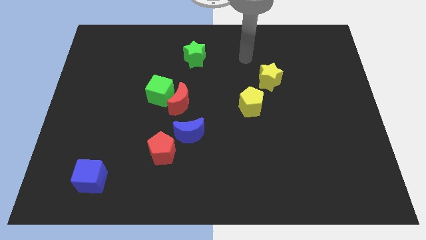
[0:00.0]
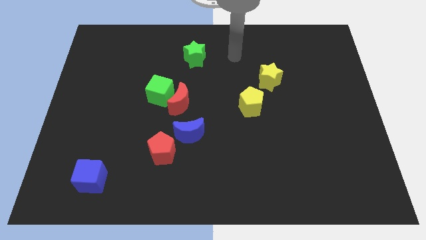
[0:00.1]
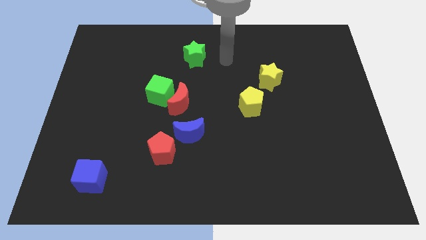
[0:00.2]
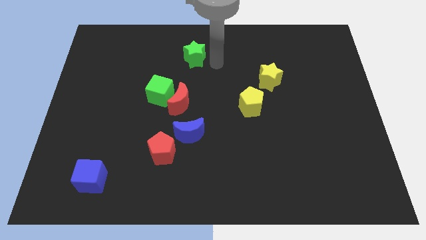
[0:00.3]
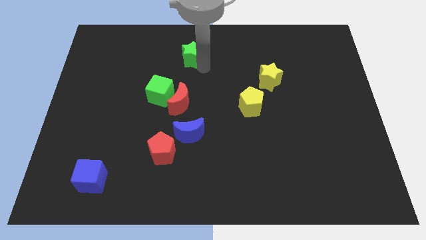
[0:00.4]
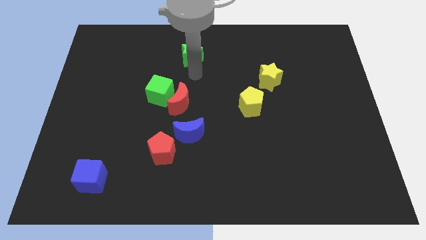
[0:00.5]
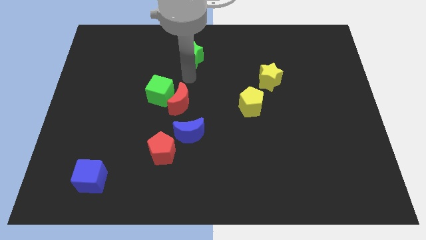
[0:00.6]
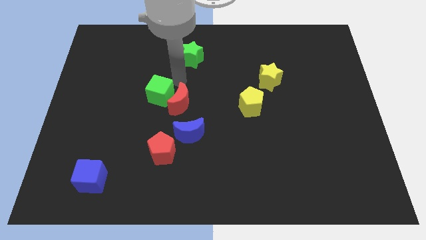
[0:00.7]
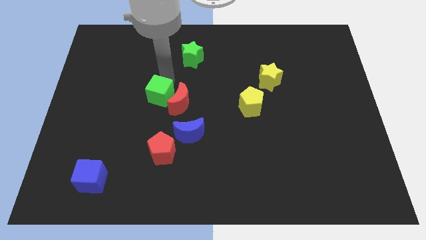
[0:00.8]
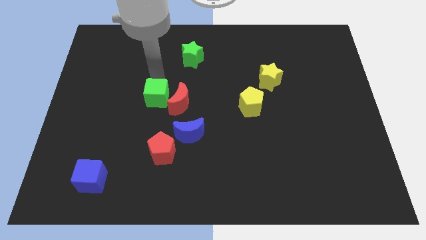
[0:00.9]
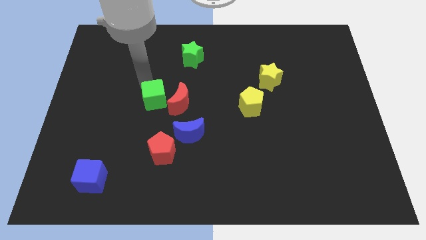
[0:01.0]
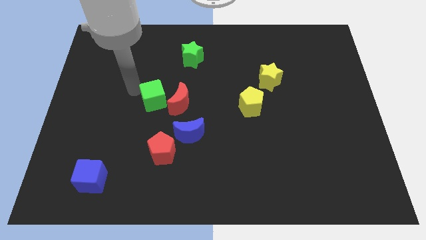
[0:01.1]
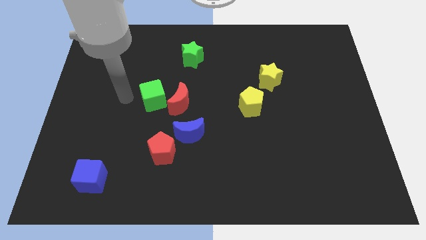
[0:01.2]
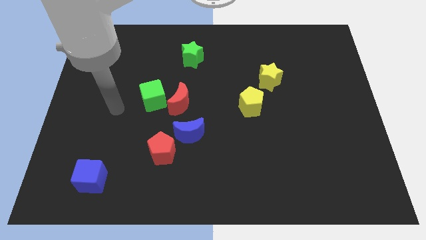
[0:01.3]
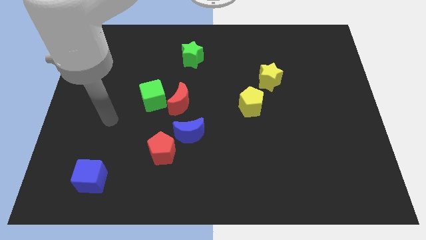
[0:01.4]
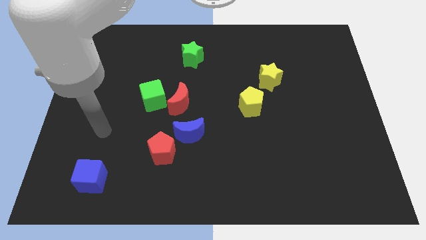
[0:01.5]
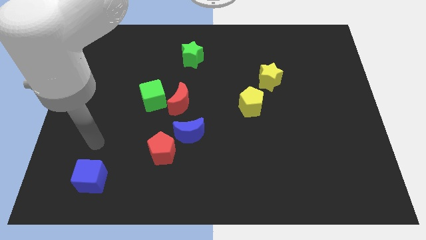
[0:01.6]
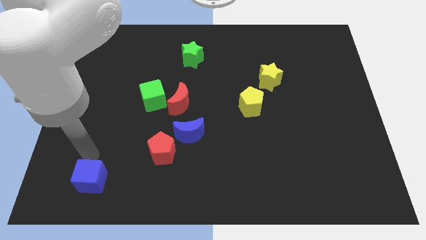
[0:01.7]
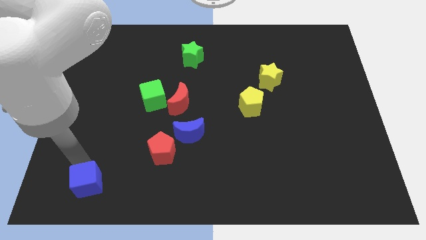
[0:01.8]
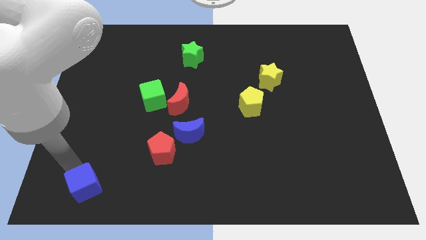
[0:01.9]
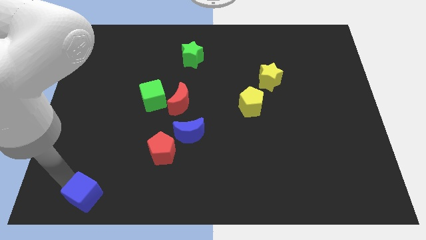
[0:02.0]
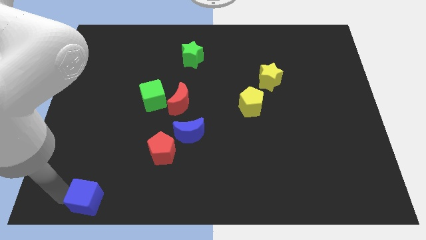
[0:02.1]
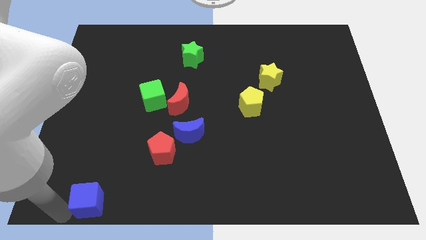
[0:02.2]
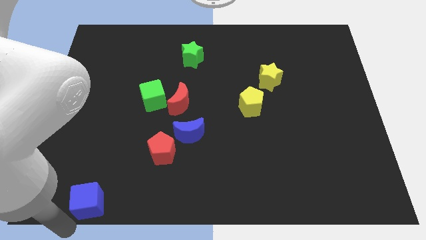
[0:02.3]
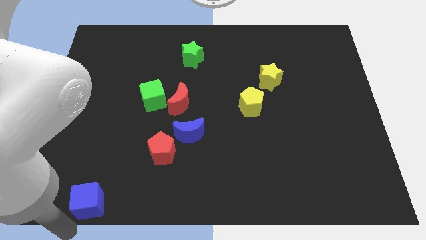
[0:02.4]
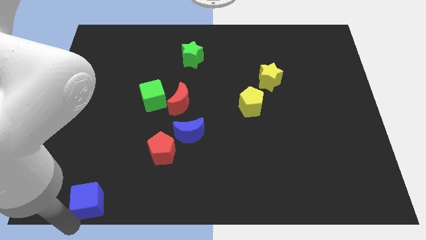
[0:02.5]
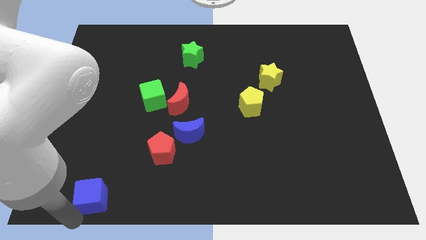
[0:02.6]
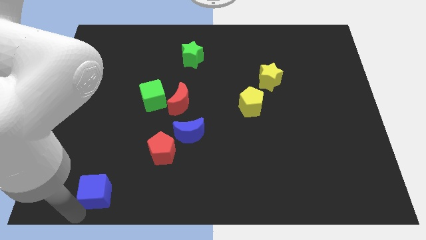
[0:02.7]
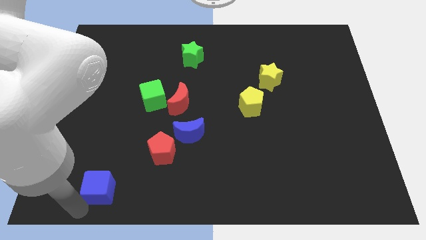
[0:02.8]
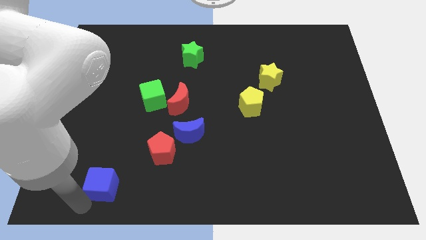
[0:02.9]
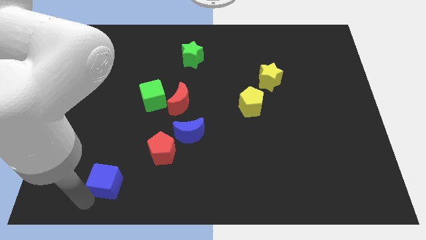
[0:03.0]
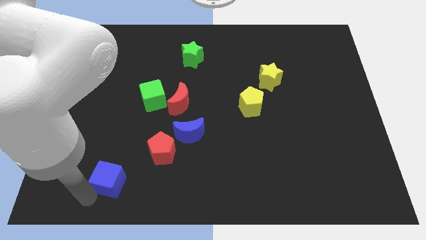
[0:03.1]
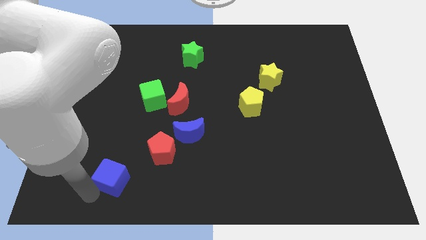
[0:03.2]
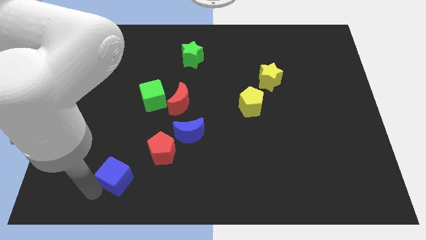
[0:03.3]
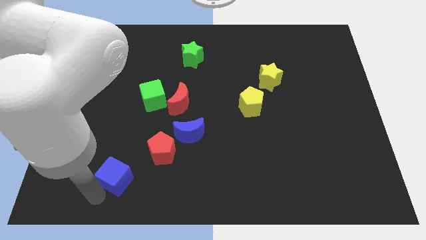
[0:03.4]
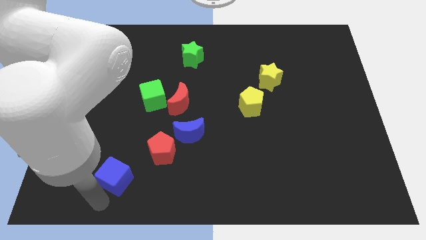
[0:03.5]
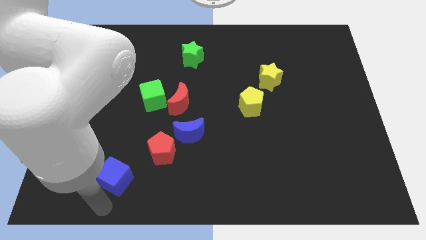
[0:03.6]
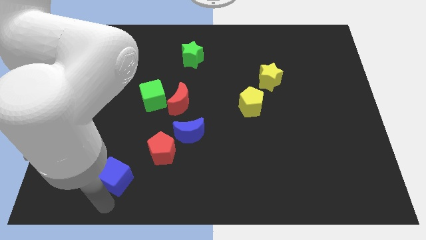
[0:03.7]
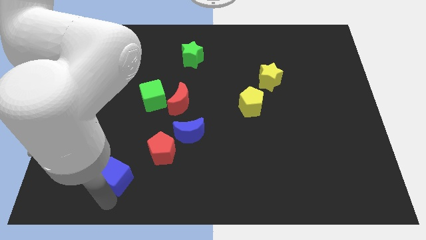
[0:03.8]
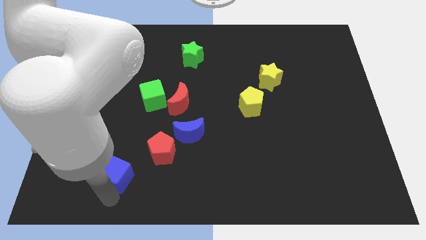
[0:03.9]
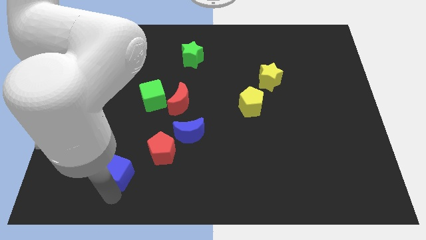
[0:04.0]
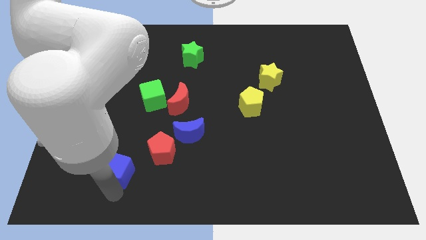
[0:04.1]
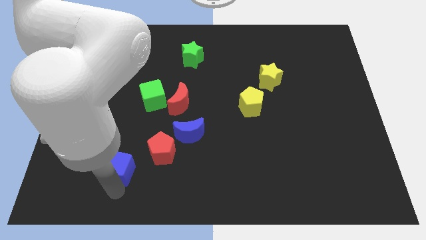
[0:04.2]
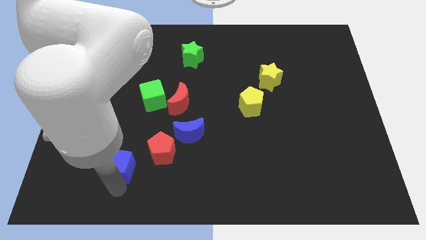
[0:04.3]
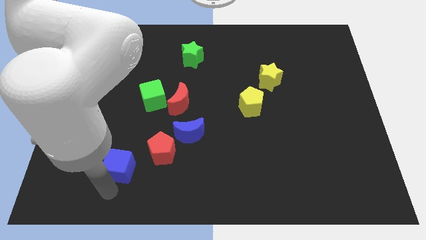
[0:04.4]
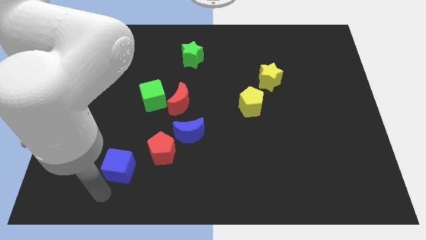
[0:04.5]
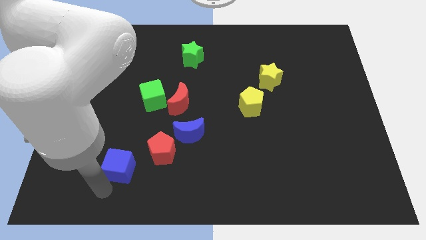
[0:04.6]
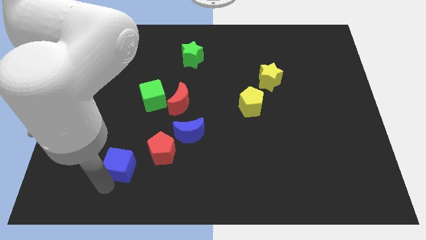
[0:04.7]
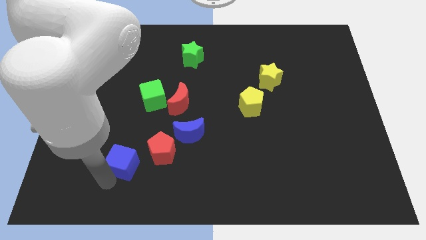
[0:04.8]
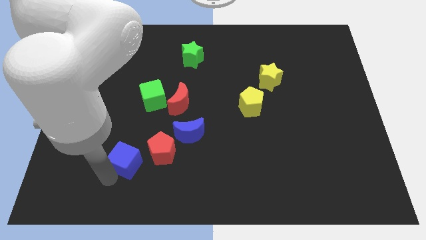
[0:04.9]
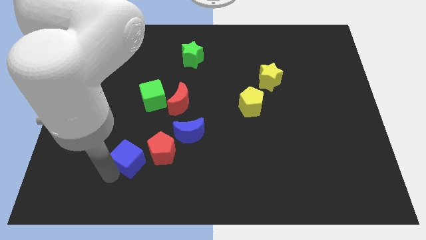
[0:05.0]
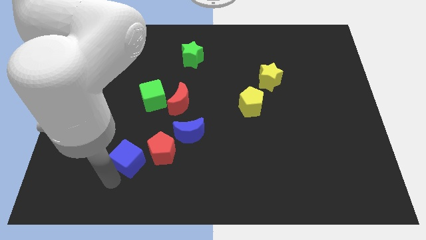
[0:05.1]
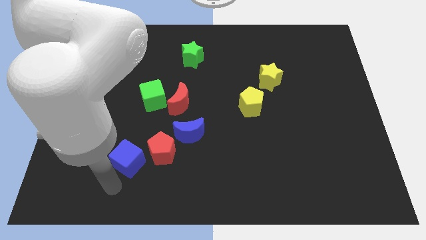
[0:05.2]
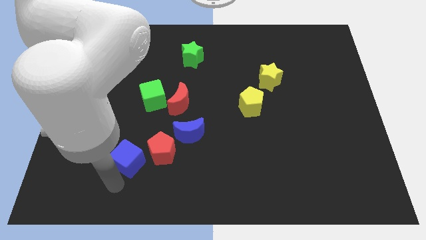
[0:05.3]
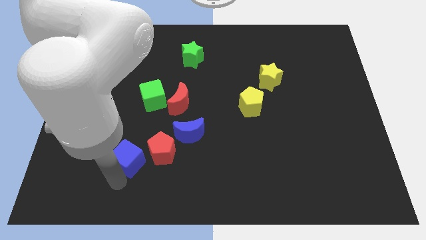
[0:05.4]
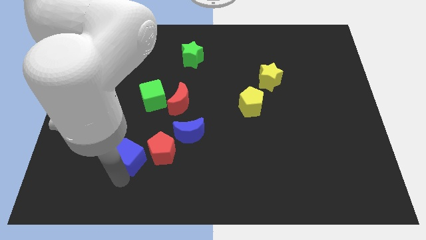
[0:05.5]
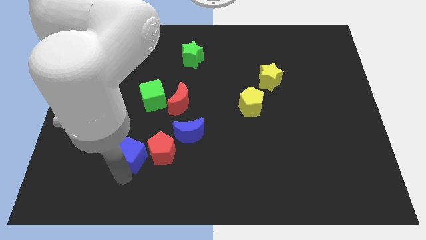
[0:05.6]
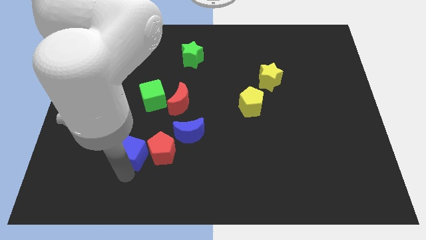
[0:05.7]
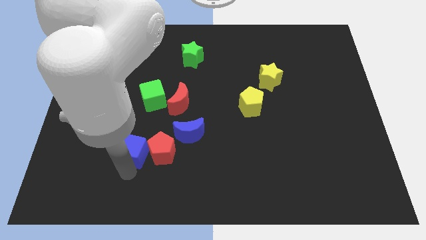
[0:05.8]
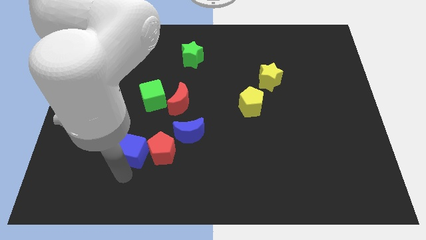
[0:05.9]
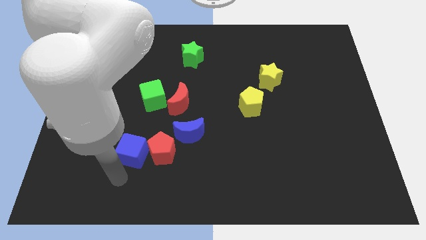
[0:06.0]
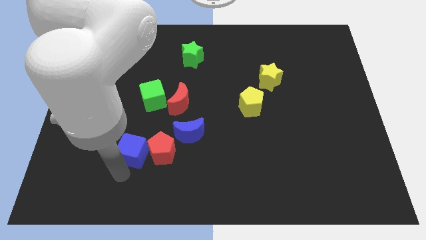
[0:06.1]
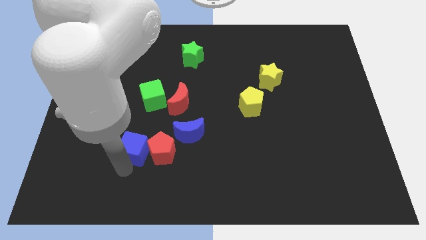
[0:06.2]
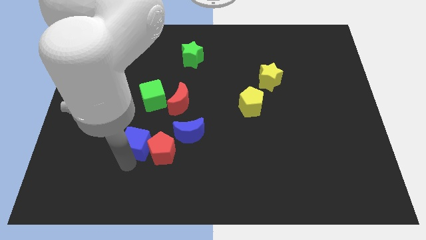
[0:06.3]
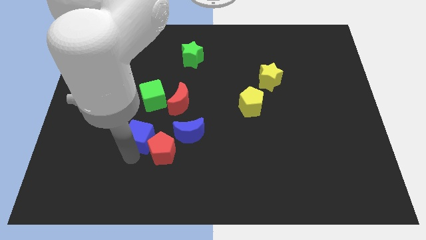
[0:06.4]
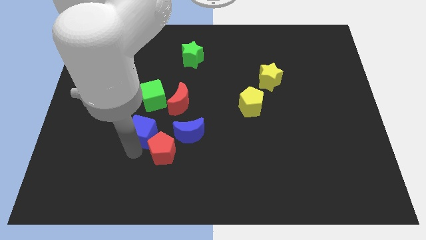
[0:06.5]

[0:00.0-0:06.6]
put the blue cube to the top of the red pentagon

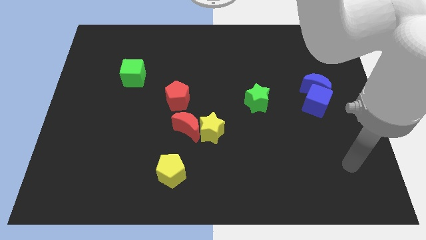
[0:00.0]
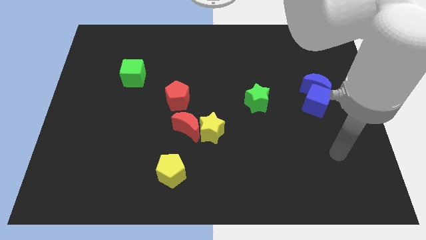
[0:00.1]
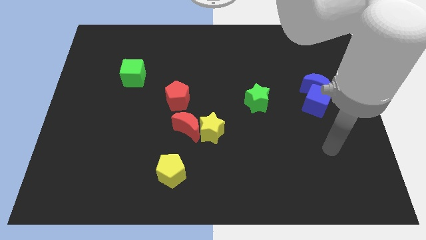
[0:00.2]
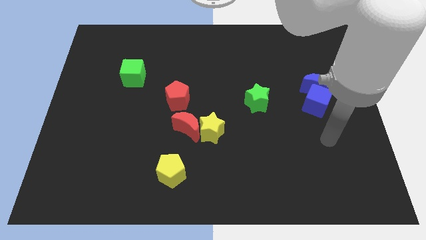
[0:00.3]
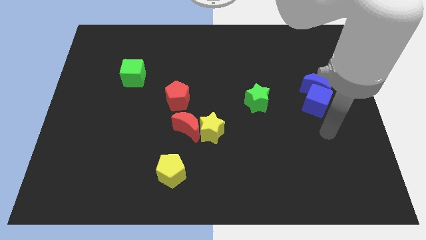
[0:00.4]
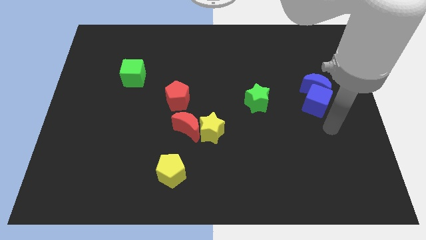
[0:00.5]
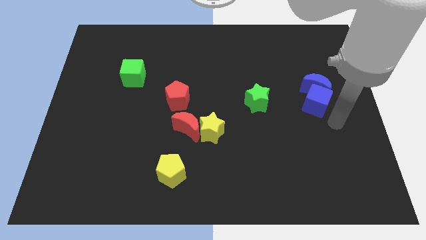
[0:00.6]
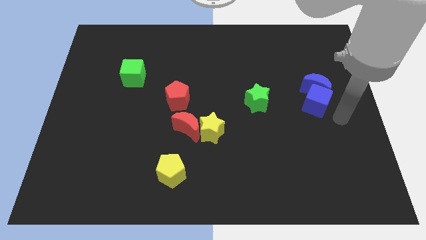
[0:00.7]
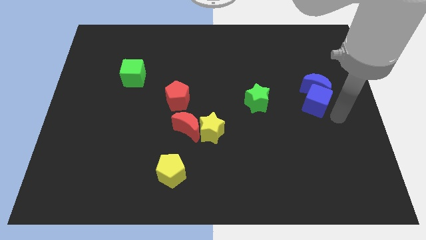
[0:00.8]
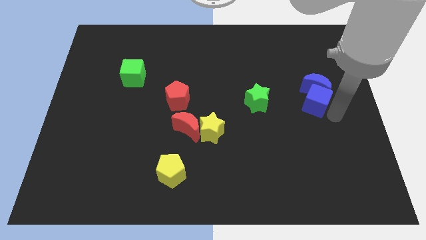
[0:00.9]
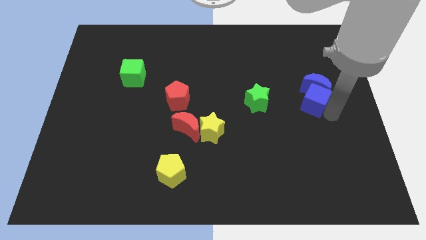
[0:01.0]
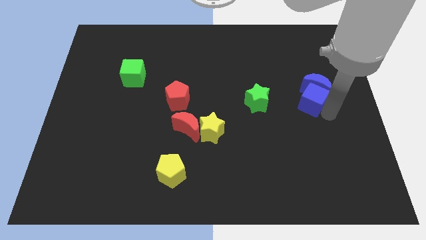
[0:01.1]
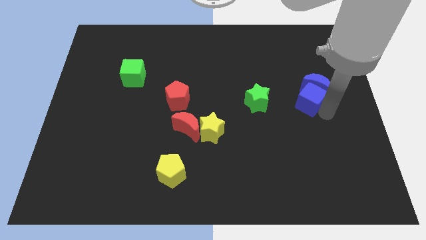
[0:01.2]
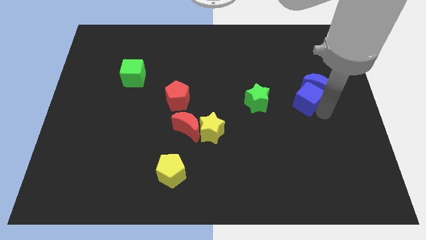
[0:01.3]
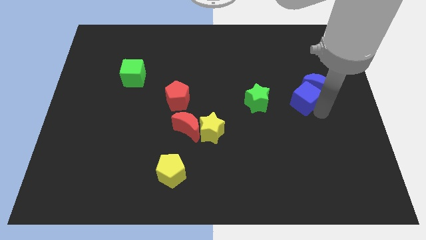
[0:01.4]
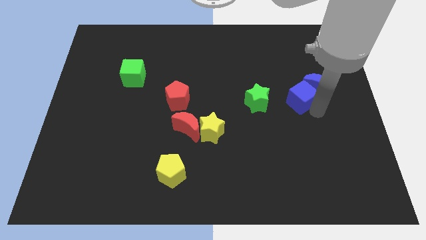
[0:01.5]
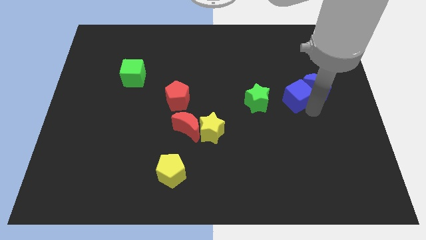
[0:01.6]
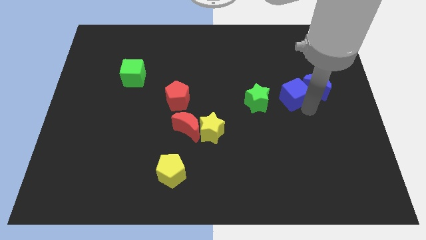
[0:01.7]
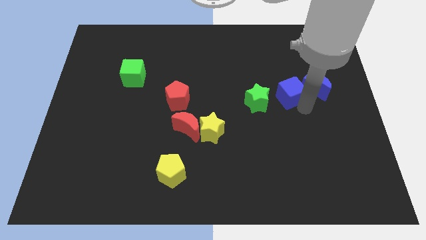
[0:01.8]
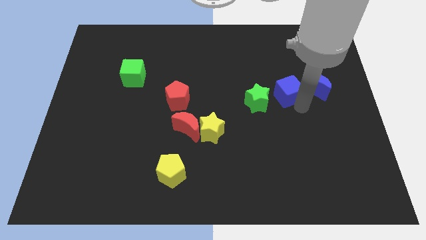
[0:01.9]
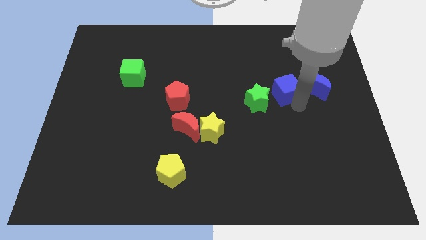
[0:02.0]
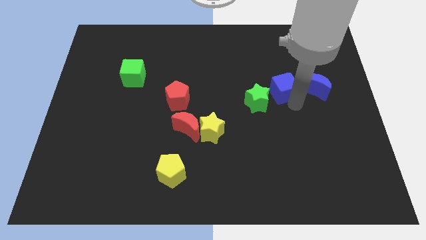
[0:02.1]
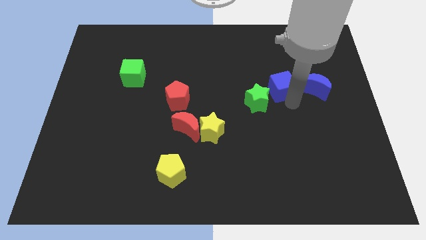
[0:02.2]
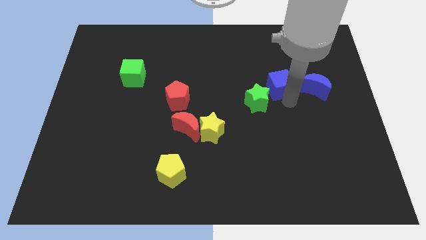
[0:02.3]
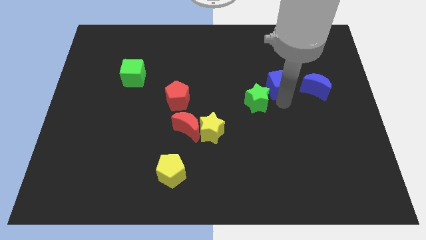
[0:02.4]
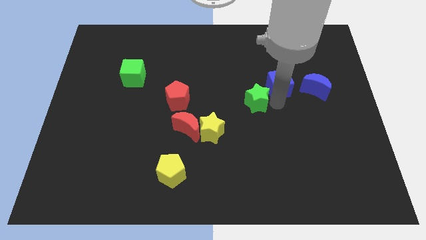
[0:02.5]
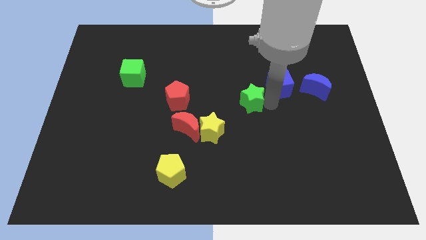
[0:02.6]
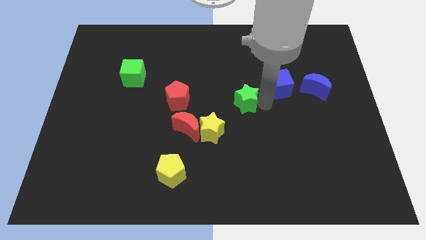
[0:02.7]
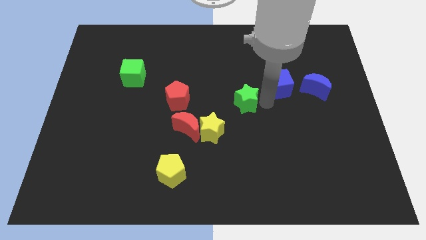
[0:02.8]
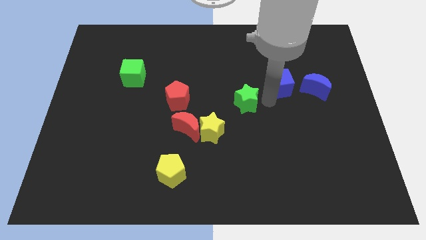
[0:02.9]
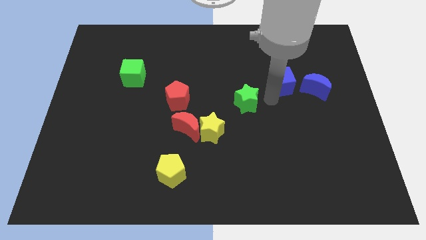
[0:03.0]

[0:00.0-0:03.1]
slide the blue cube to the top left of the blue moon
